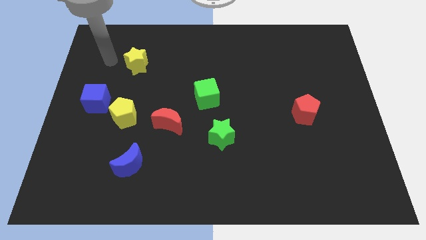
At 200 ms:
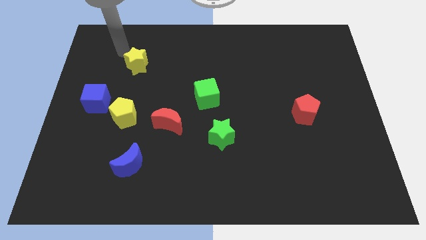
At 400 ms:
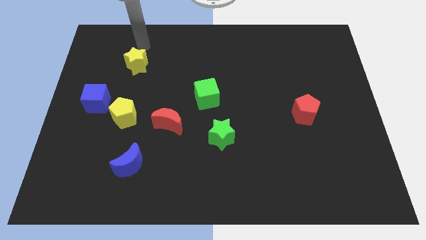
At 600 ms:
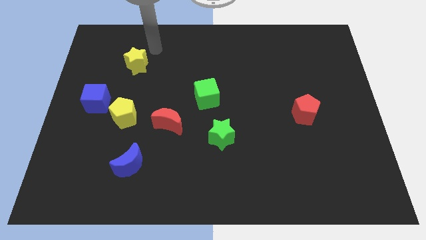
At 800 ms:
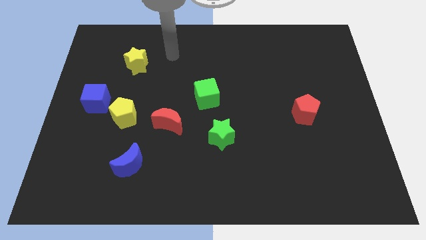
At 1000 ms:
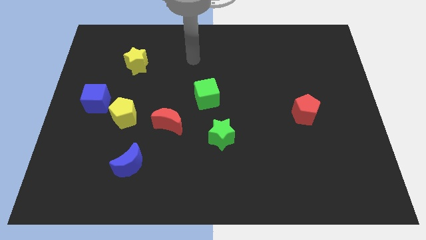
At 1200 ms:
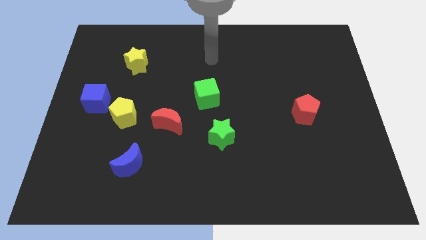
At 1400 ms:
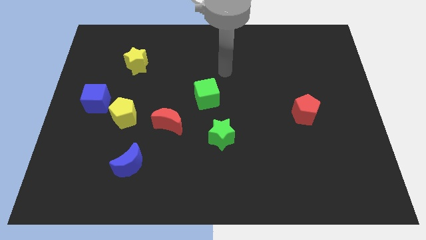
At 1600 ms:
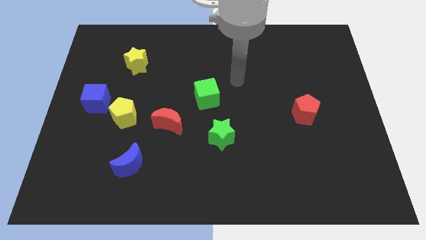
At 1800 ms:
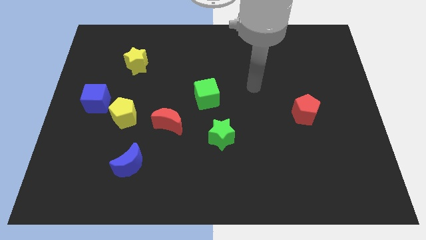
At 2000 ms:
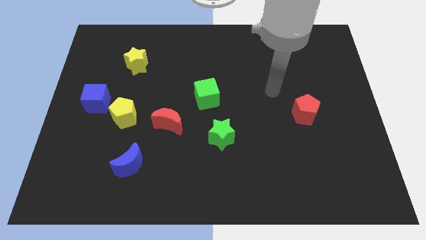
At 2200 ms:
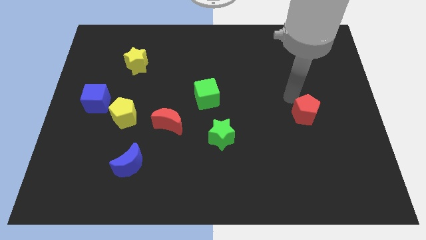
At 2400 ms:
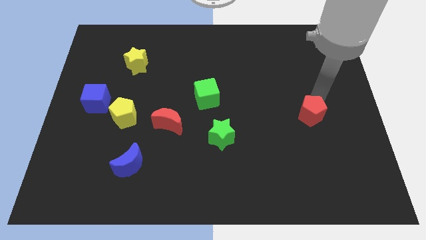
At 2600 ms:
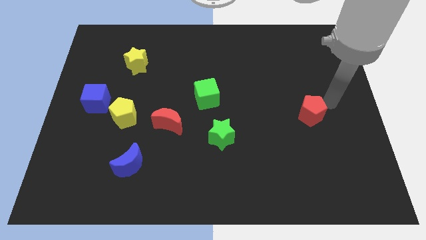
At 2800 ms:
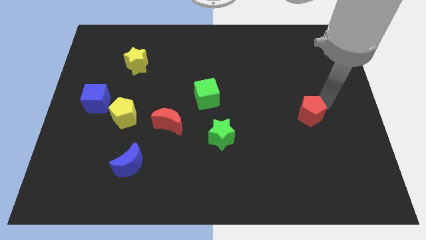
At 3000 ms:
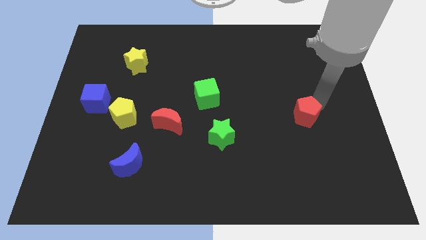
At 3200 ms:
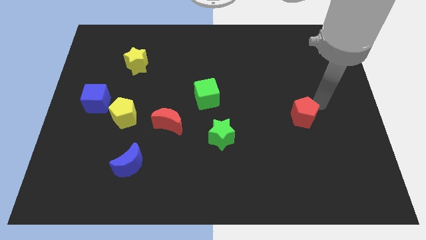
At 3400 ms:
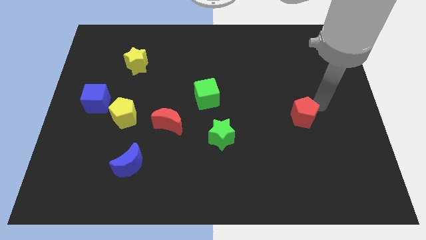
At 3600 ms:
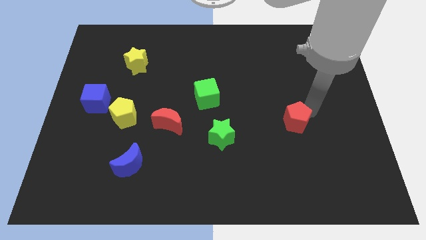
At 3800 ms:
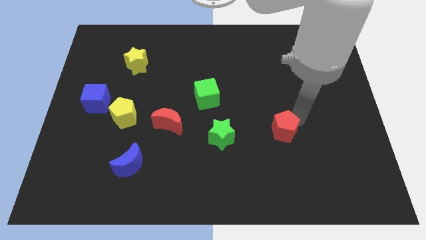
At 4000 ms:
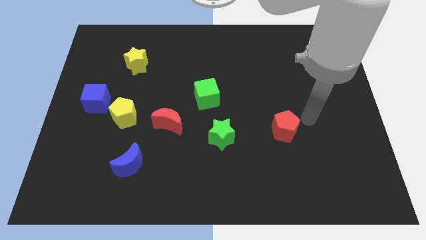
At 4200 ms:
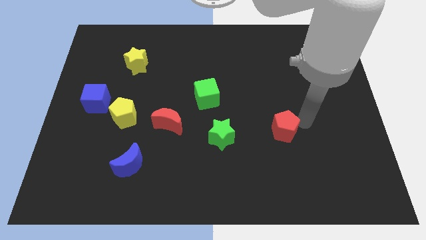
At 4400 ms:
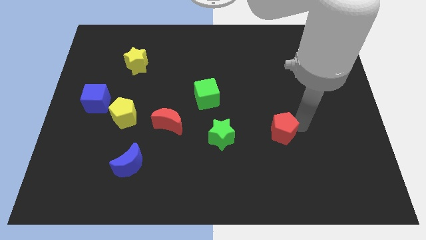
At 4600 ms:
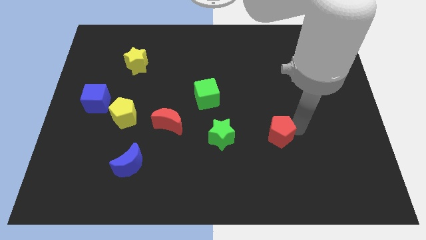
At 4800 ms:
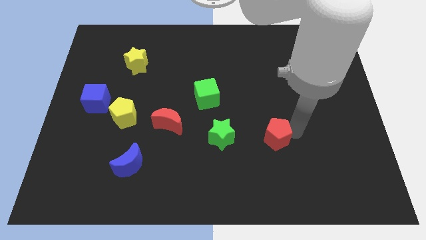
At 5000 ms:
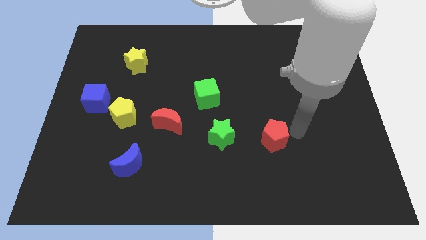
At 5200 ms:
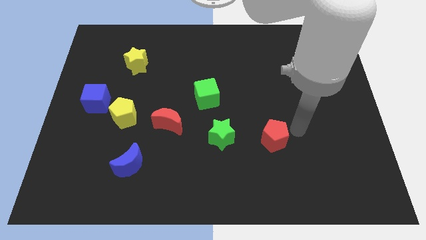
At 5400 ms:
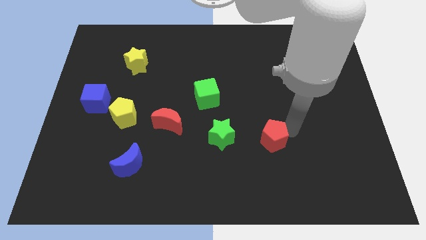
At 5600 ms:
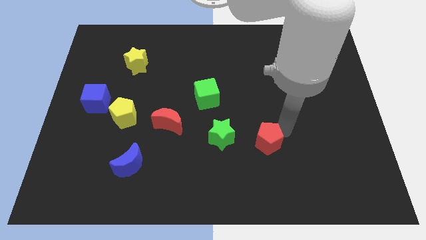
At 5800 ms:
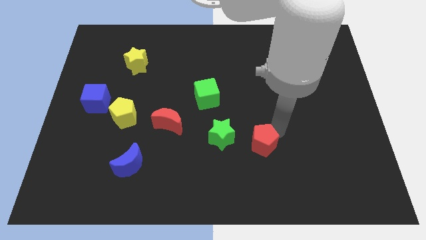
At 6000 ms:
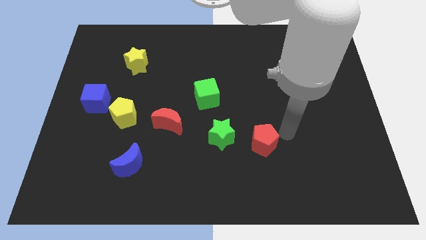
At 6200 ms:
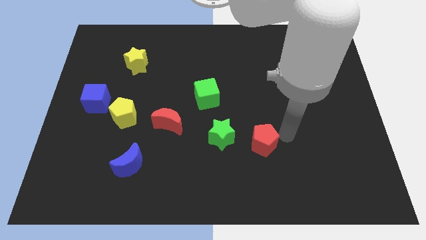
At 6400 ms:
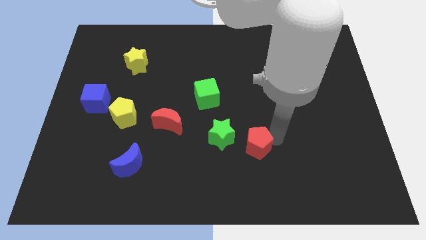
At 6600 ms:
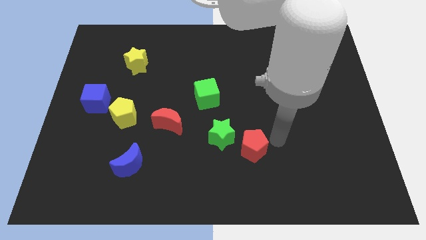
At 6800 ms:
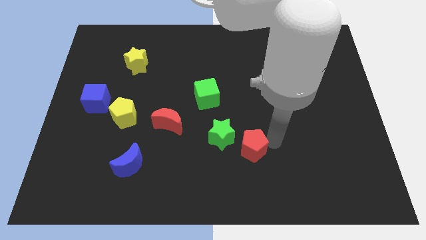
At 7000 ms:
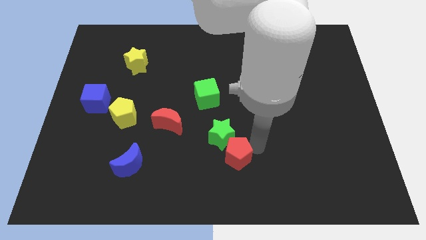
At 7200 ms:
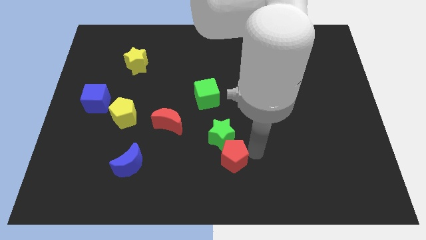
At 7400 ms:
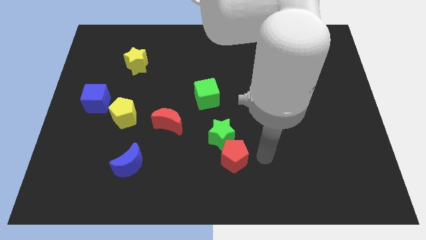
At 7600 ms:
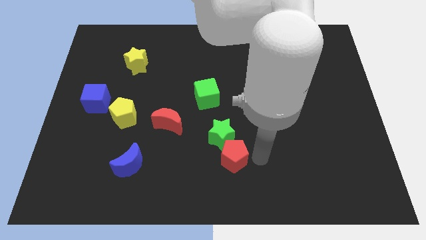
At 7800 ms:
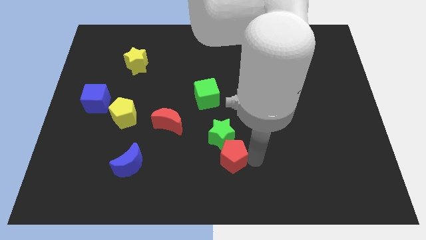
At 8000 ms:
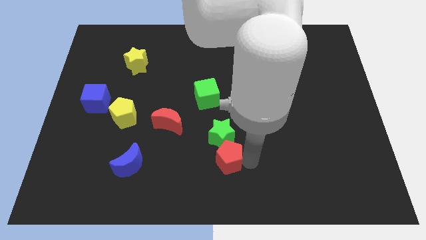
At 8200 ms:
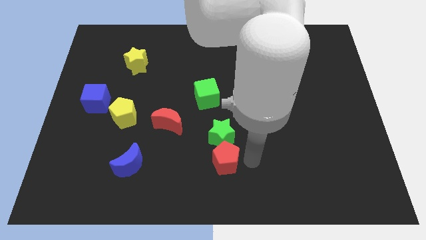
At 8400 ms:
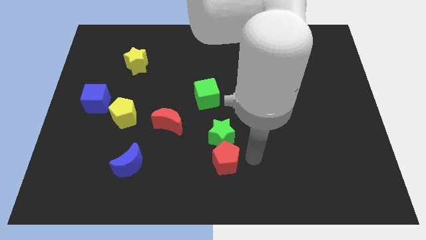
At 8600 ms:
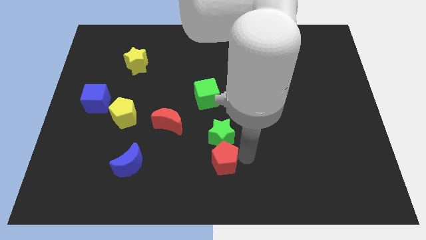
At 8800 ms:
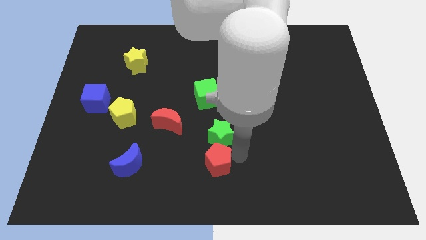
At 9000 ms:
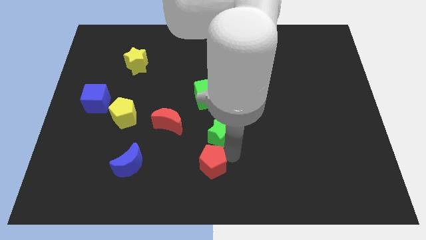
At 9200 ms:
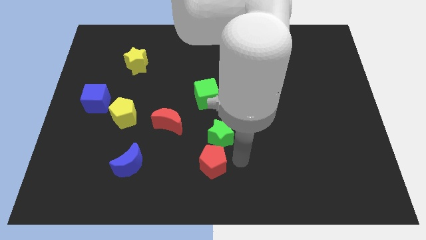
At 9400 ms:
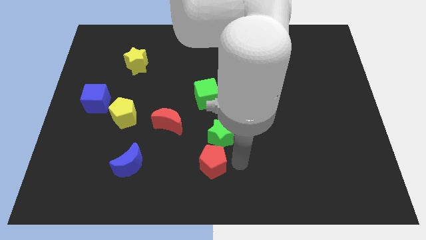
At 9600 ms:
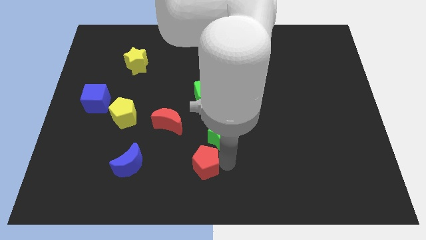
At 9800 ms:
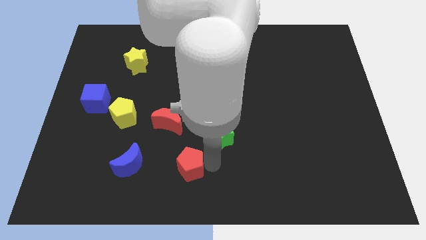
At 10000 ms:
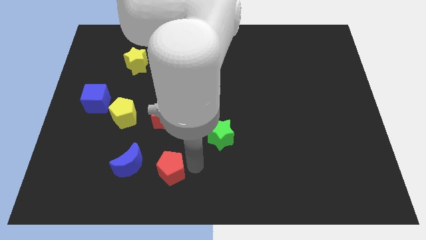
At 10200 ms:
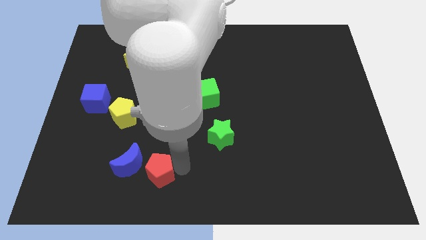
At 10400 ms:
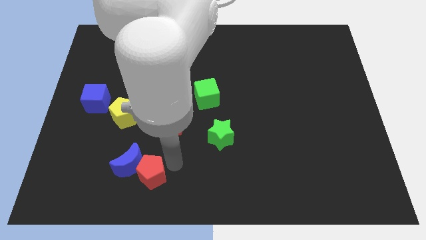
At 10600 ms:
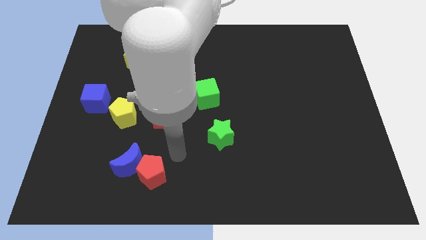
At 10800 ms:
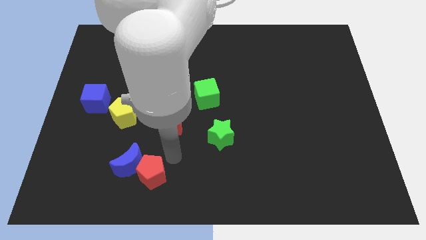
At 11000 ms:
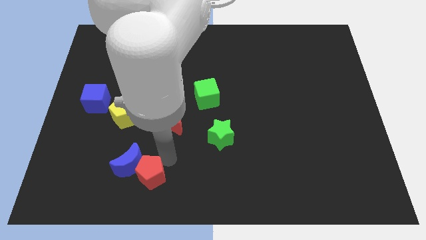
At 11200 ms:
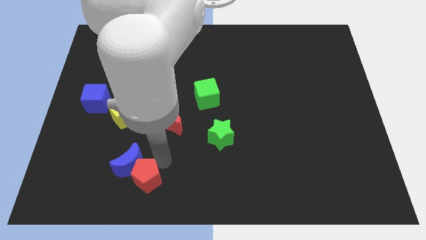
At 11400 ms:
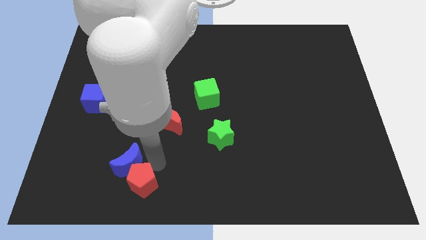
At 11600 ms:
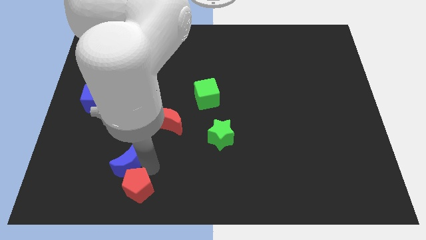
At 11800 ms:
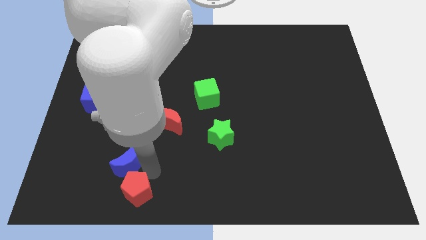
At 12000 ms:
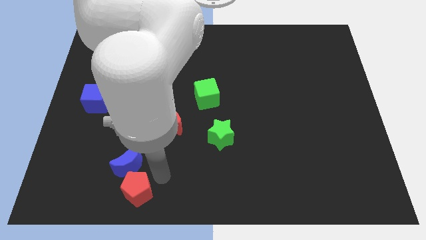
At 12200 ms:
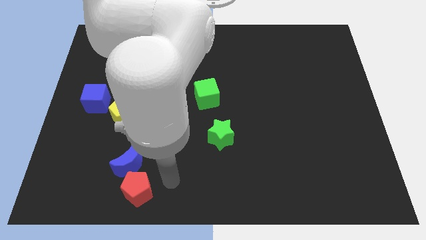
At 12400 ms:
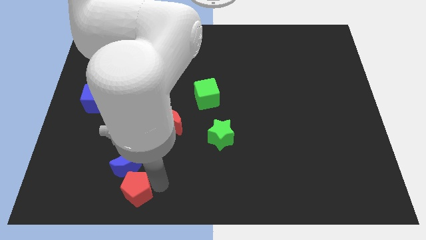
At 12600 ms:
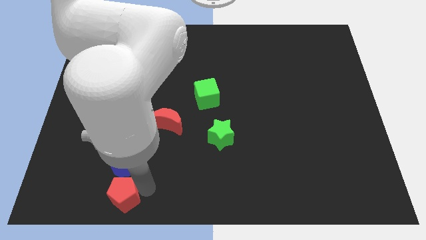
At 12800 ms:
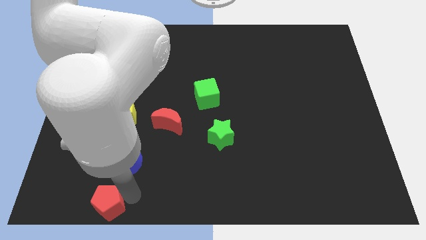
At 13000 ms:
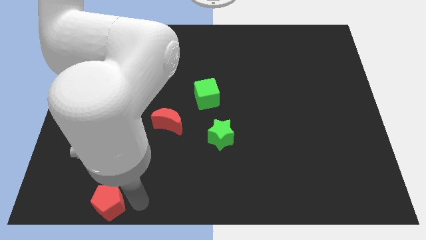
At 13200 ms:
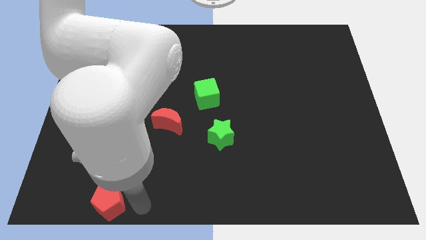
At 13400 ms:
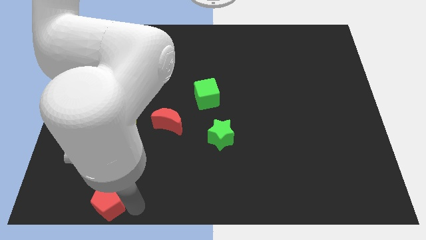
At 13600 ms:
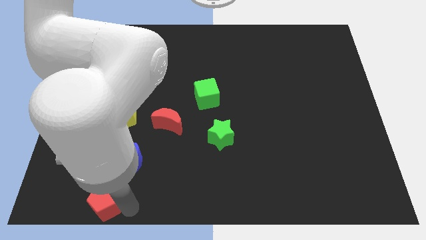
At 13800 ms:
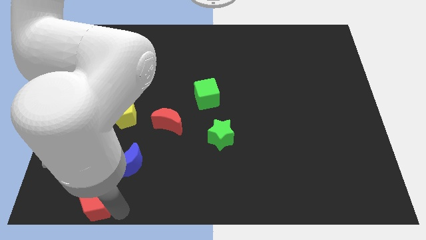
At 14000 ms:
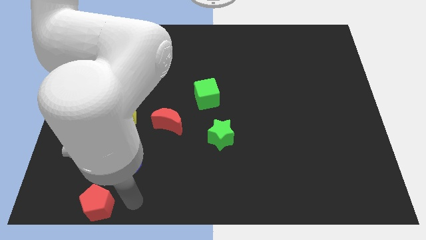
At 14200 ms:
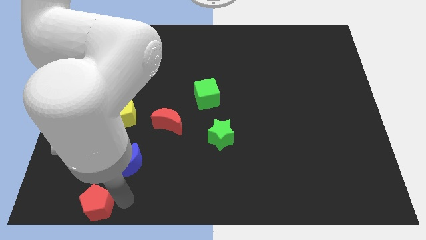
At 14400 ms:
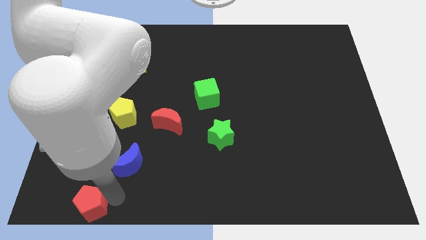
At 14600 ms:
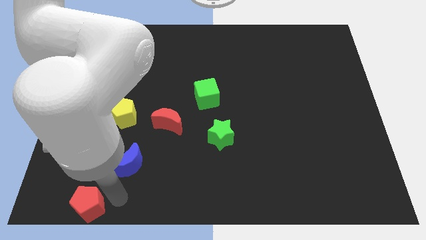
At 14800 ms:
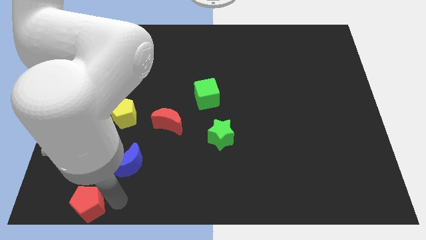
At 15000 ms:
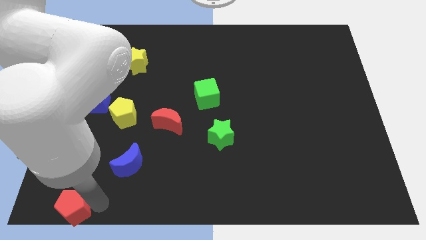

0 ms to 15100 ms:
put the red pentagon to the bottom left corner
